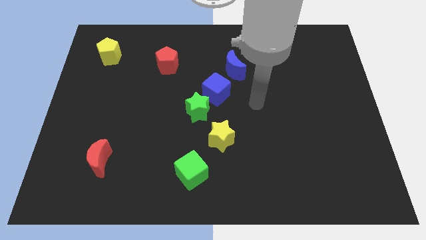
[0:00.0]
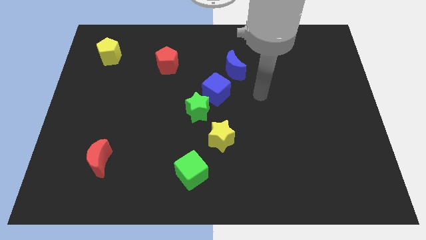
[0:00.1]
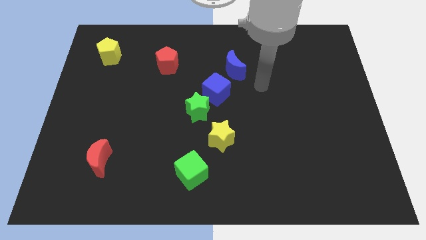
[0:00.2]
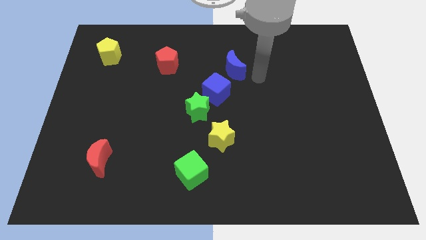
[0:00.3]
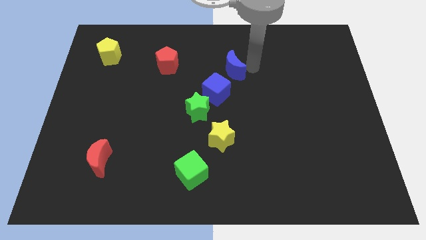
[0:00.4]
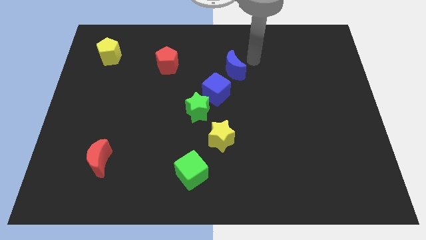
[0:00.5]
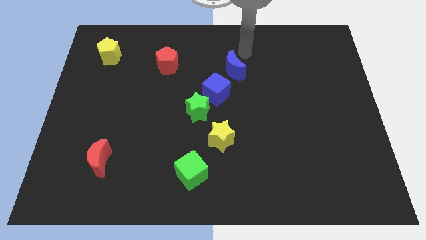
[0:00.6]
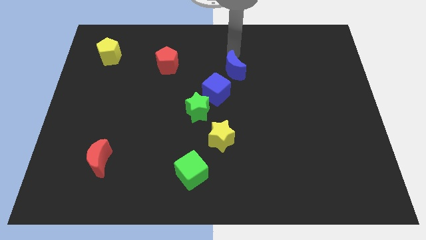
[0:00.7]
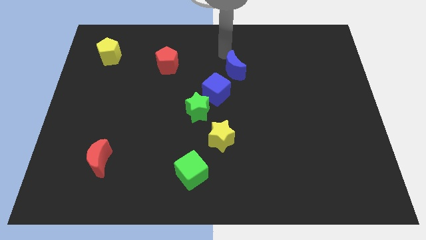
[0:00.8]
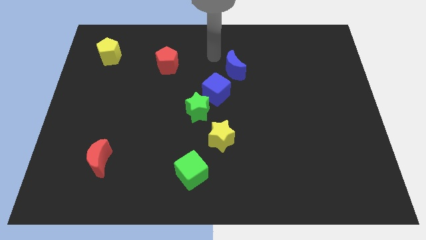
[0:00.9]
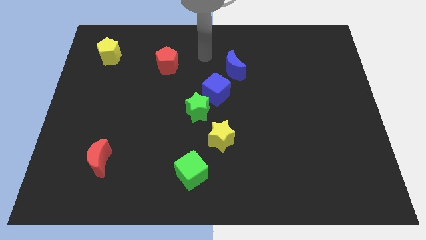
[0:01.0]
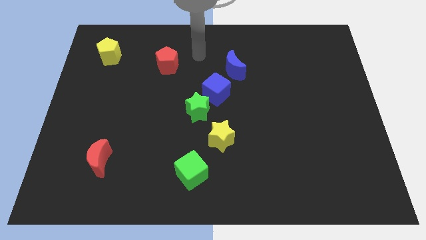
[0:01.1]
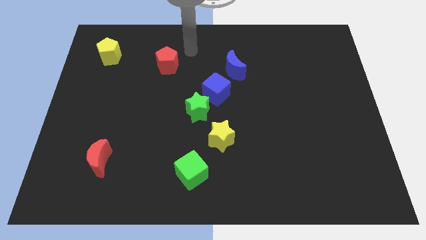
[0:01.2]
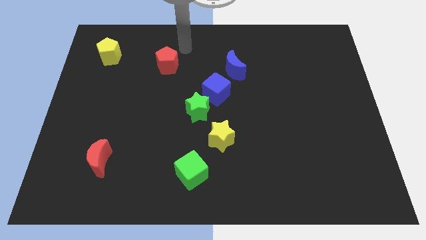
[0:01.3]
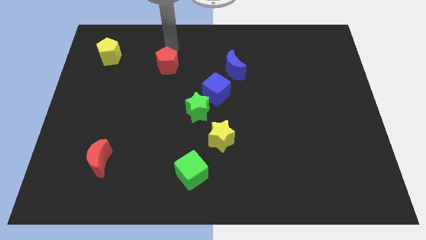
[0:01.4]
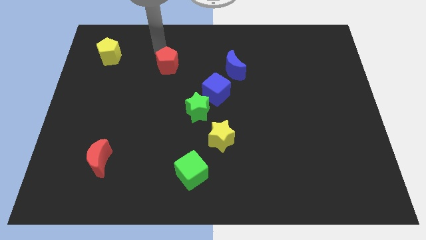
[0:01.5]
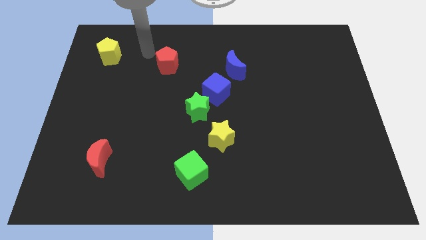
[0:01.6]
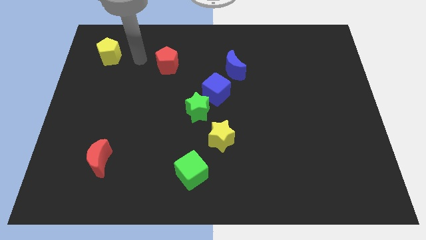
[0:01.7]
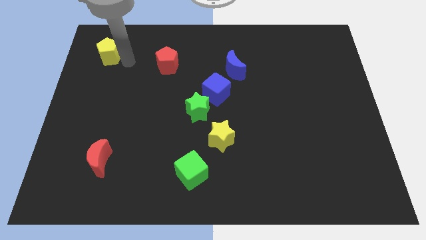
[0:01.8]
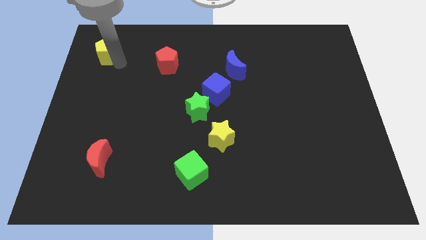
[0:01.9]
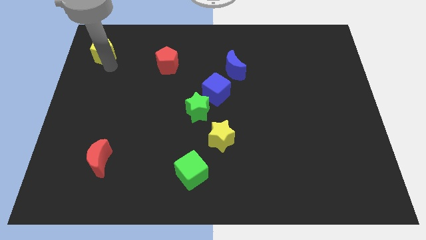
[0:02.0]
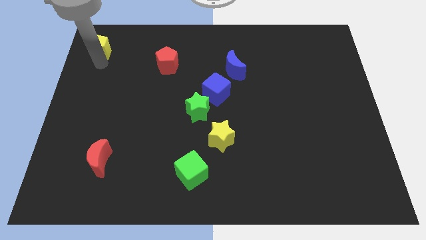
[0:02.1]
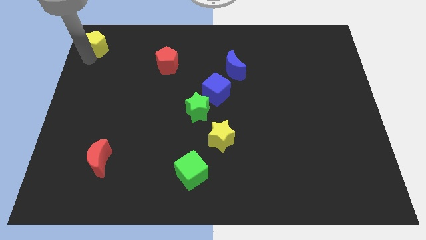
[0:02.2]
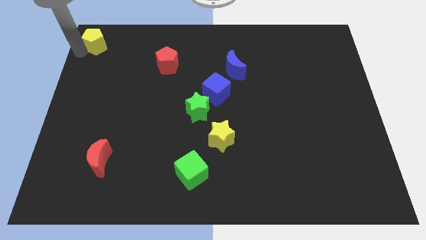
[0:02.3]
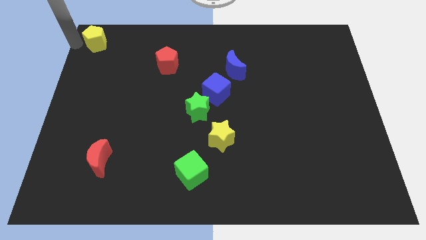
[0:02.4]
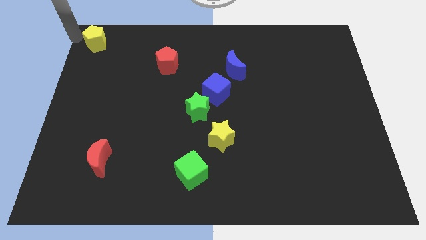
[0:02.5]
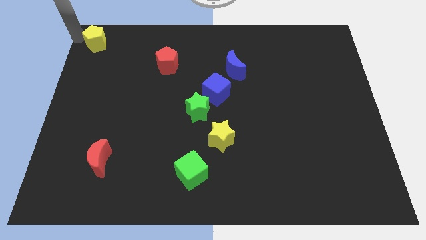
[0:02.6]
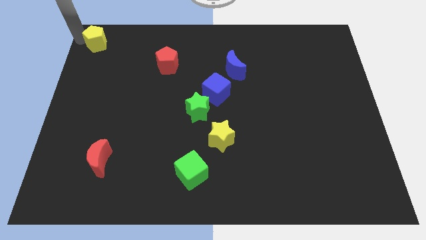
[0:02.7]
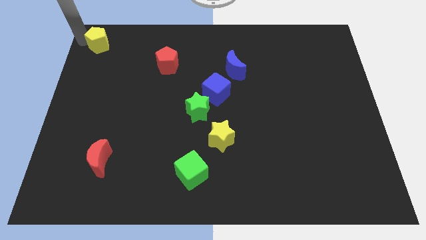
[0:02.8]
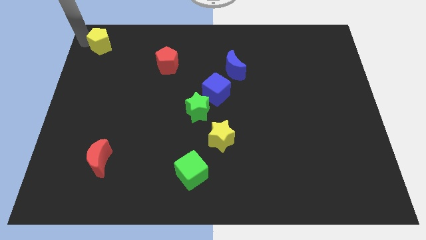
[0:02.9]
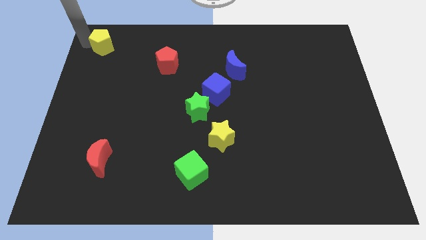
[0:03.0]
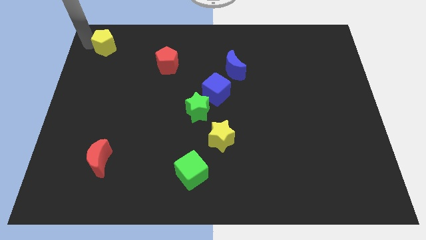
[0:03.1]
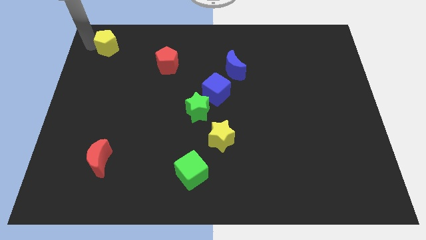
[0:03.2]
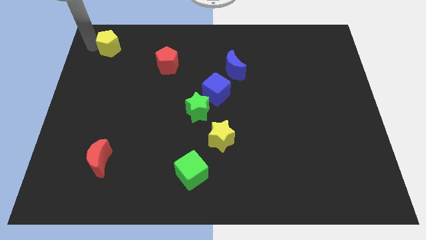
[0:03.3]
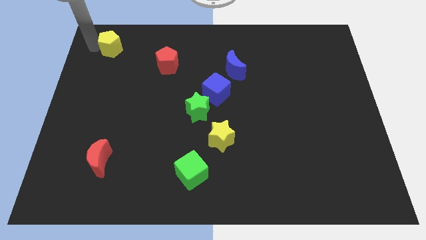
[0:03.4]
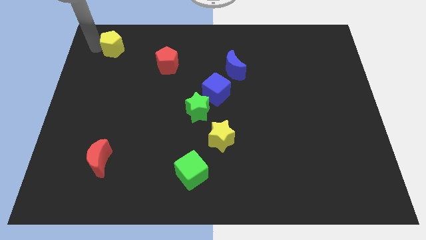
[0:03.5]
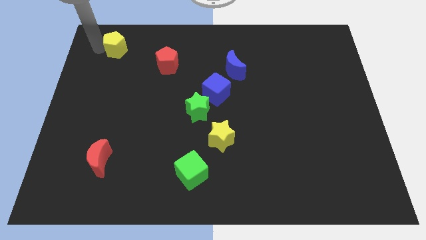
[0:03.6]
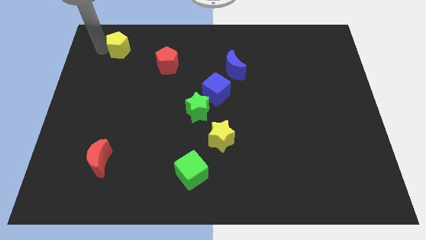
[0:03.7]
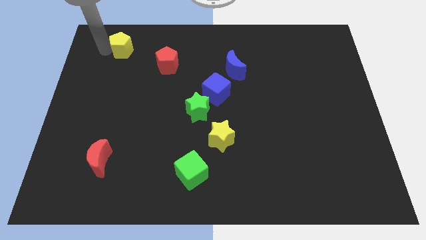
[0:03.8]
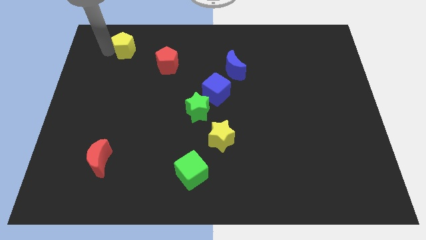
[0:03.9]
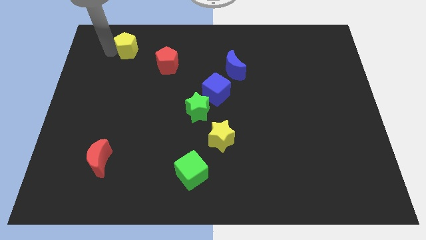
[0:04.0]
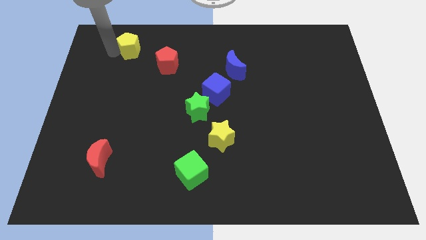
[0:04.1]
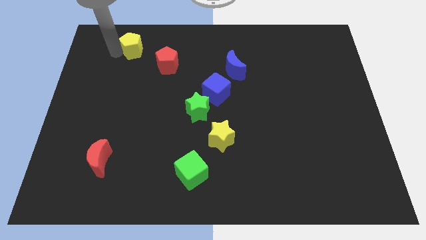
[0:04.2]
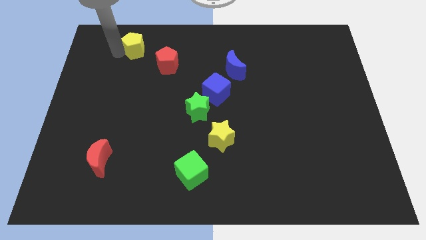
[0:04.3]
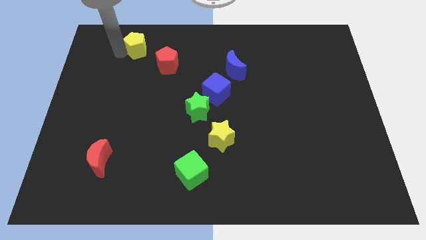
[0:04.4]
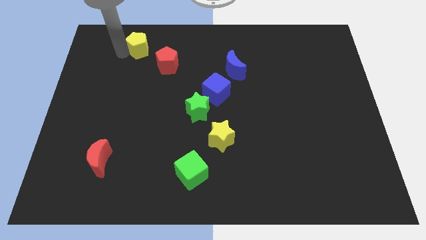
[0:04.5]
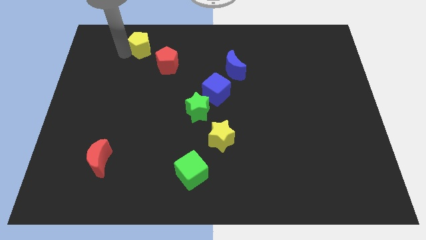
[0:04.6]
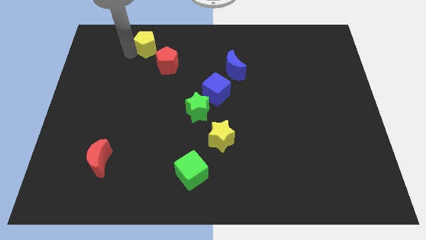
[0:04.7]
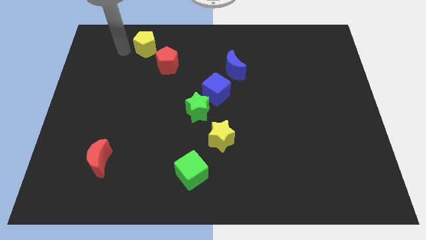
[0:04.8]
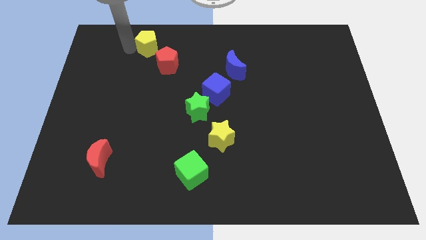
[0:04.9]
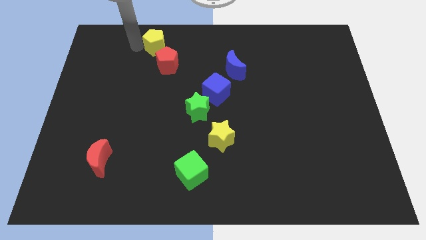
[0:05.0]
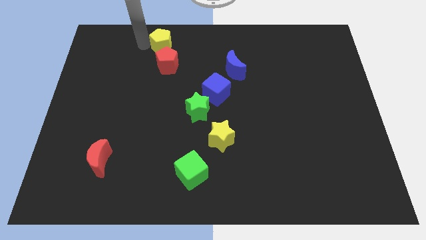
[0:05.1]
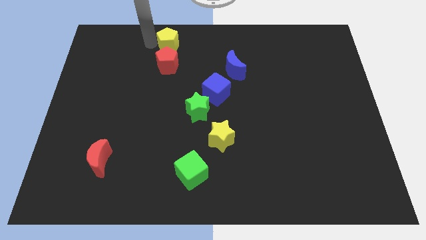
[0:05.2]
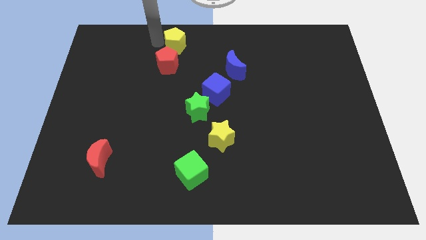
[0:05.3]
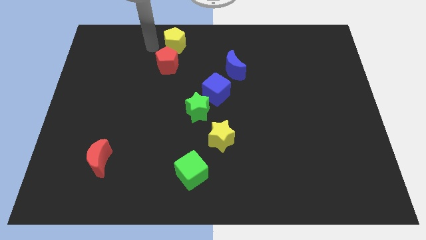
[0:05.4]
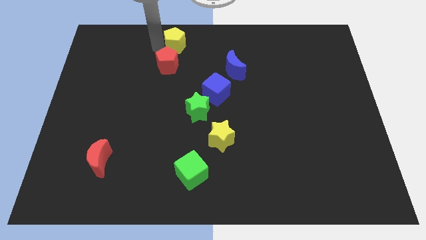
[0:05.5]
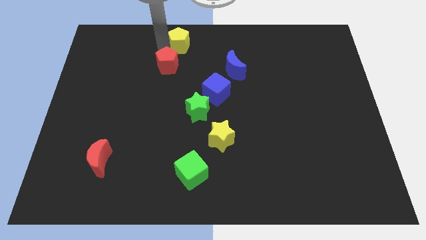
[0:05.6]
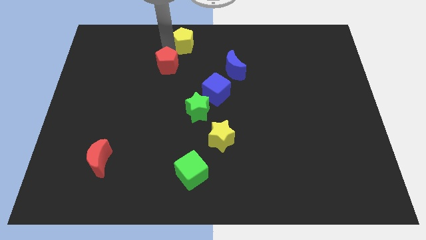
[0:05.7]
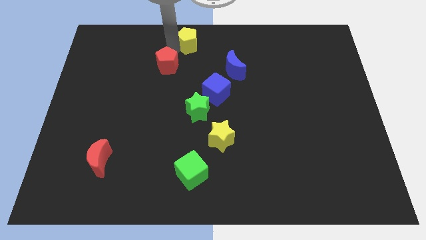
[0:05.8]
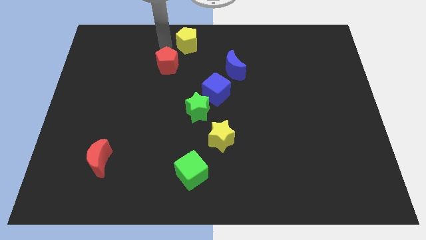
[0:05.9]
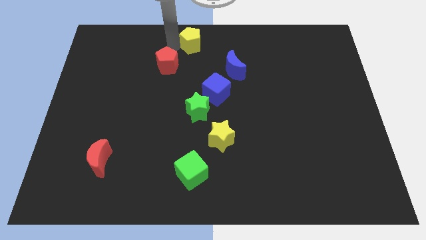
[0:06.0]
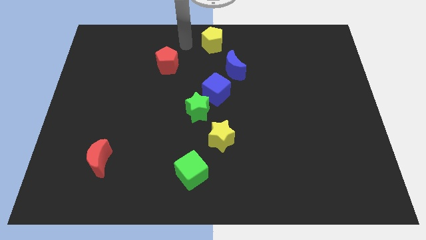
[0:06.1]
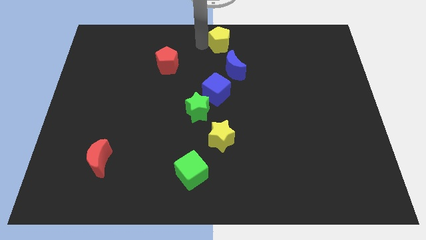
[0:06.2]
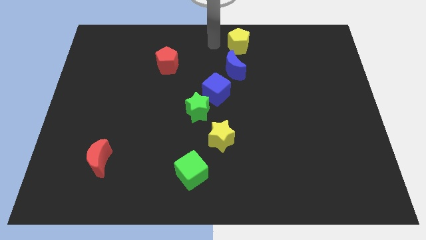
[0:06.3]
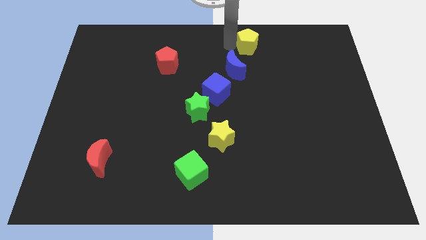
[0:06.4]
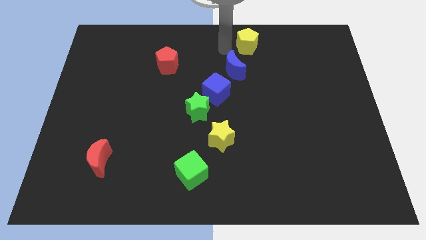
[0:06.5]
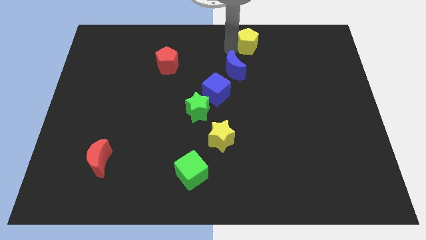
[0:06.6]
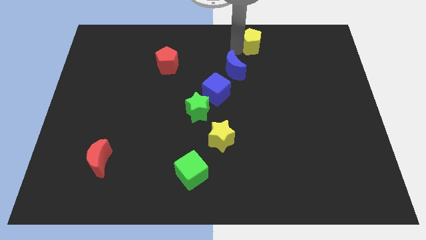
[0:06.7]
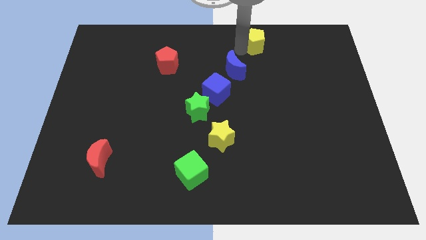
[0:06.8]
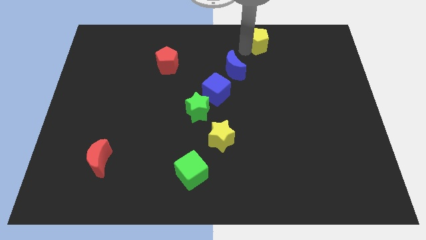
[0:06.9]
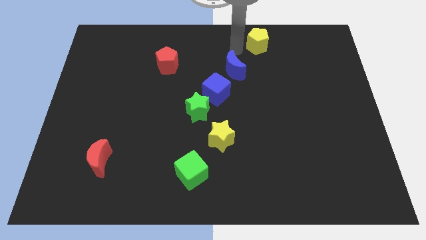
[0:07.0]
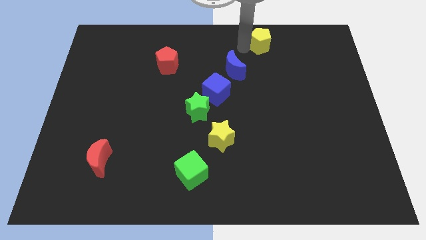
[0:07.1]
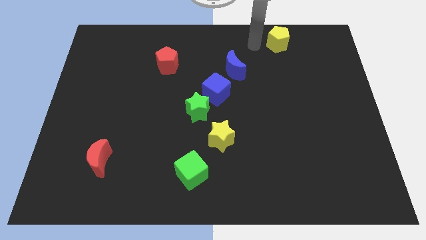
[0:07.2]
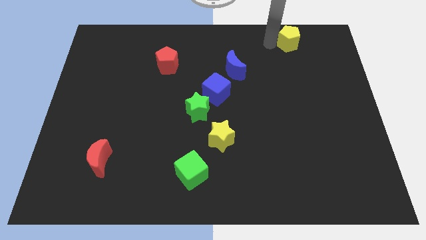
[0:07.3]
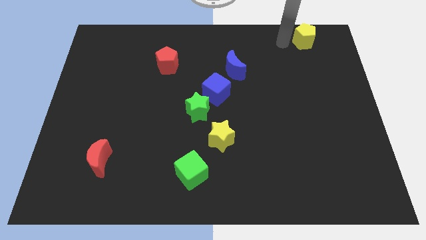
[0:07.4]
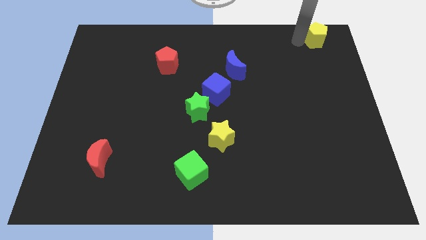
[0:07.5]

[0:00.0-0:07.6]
move the yellow pentagon to the top right

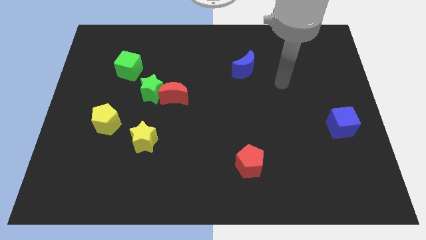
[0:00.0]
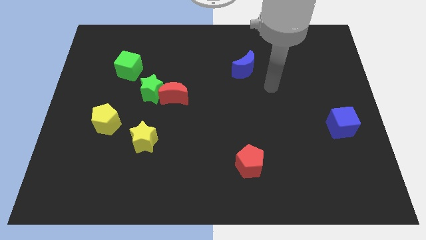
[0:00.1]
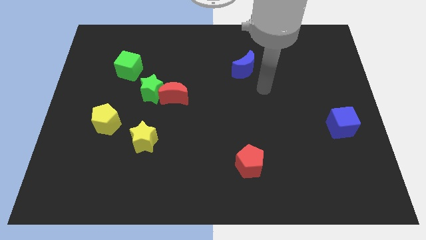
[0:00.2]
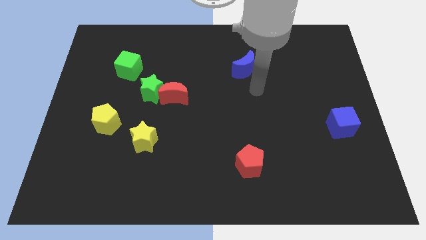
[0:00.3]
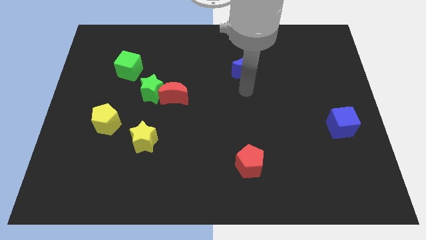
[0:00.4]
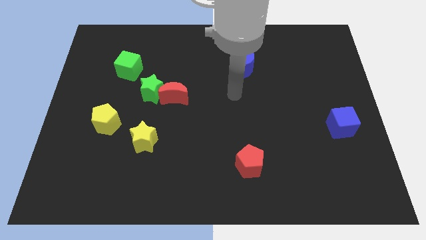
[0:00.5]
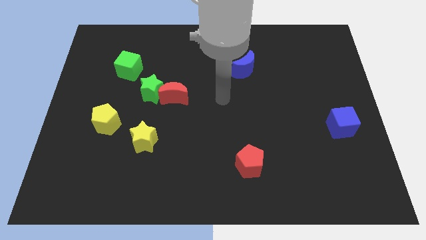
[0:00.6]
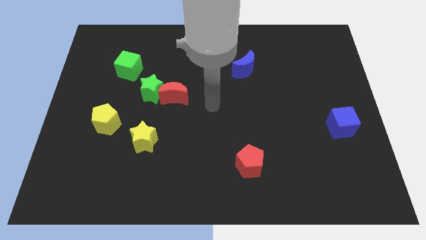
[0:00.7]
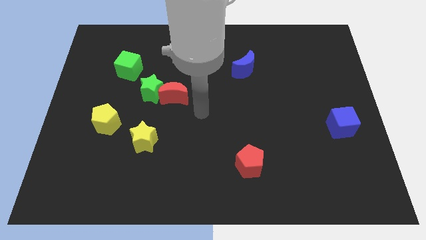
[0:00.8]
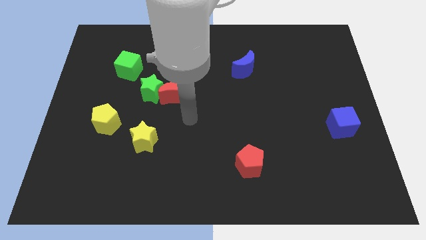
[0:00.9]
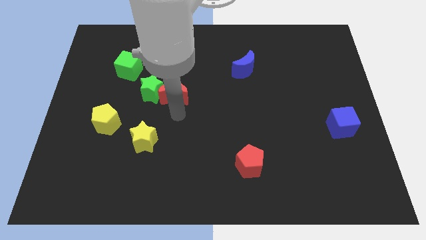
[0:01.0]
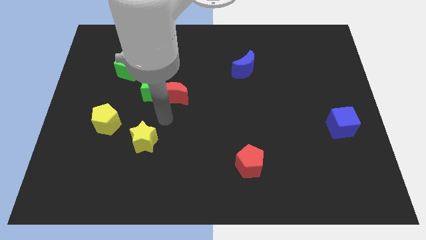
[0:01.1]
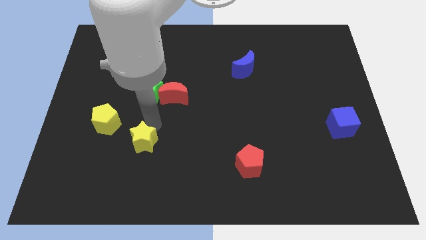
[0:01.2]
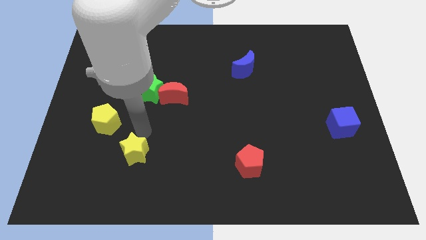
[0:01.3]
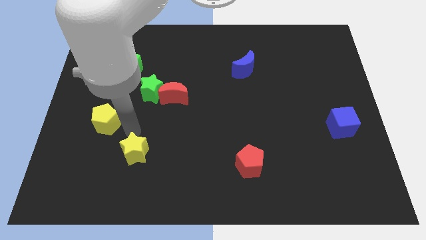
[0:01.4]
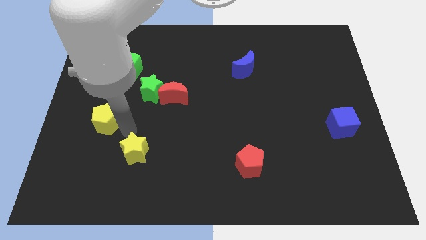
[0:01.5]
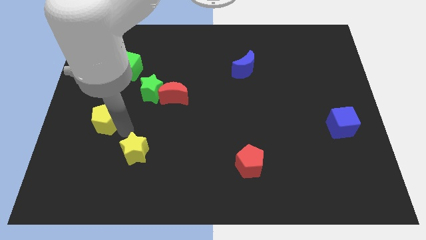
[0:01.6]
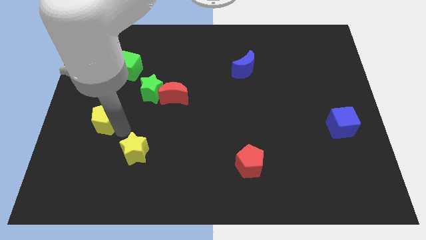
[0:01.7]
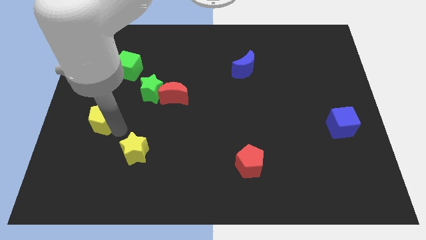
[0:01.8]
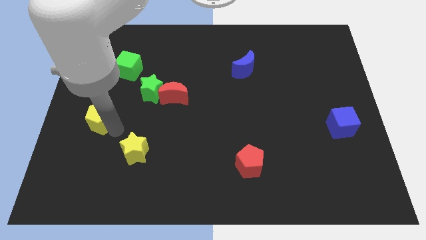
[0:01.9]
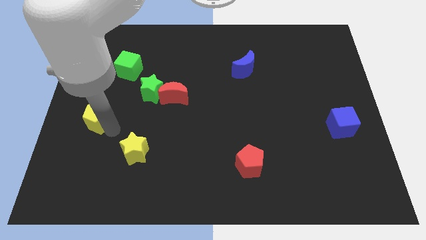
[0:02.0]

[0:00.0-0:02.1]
put the yellow pentagon to the left side
